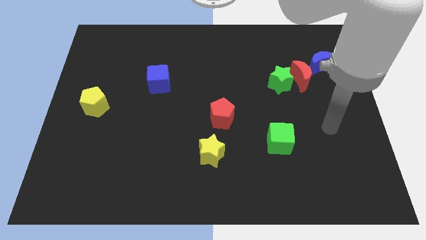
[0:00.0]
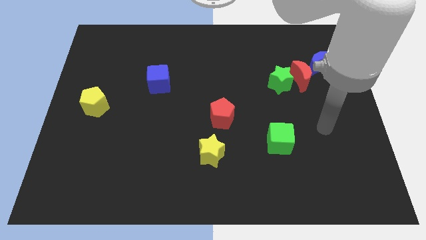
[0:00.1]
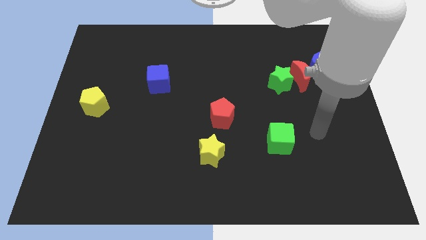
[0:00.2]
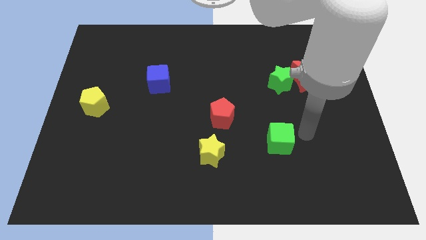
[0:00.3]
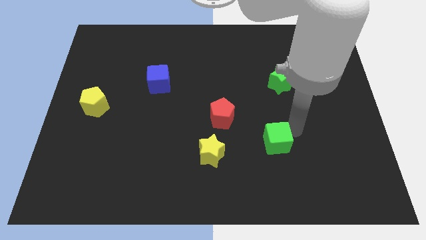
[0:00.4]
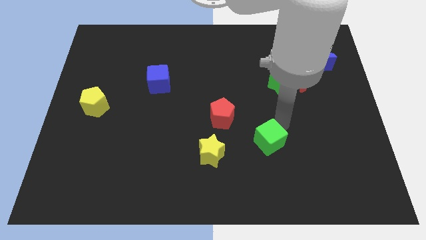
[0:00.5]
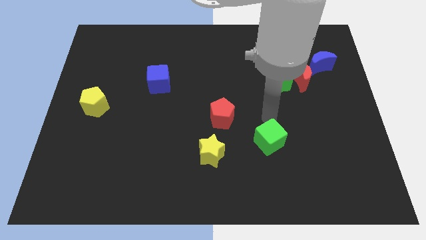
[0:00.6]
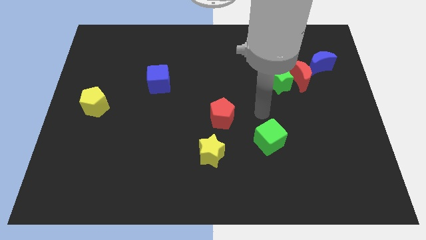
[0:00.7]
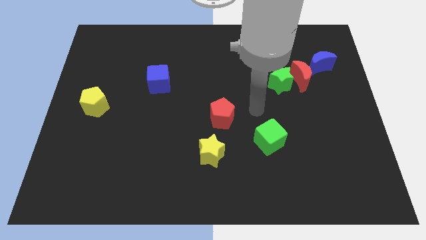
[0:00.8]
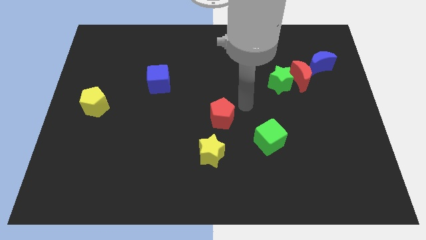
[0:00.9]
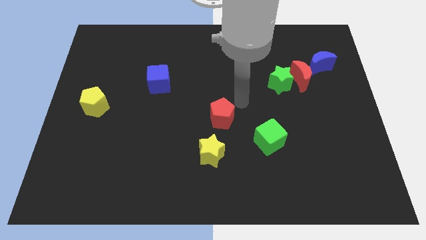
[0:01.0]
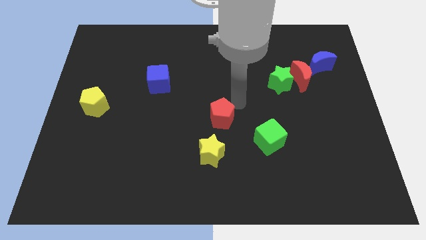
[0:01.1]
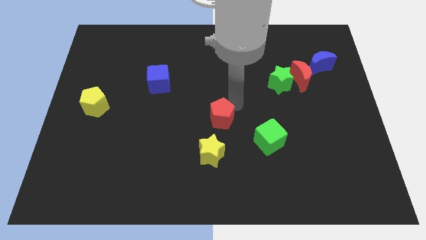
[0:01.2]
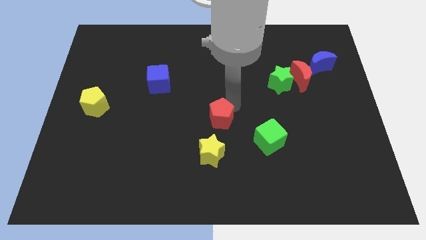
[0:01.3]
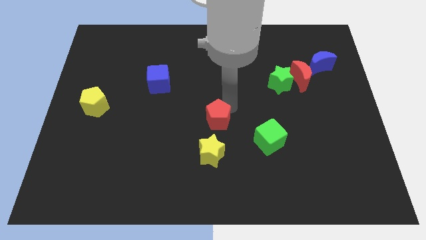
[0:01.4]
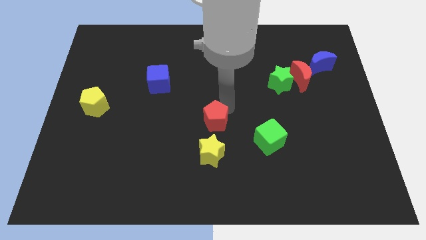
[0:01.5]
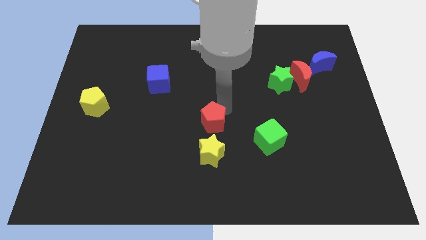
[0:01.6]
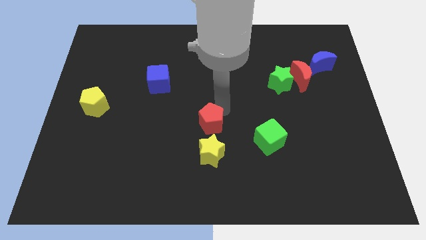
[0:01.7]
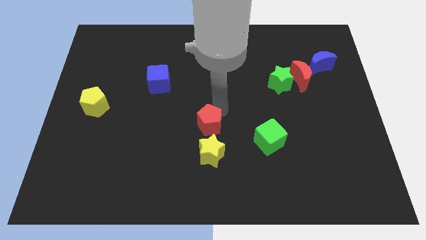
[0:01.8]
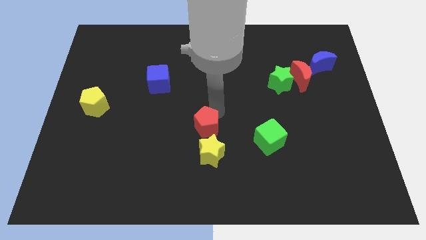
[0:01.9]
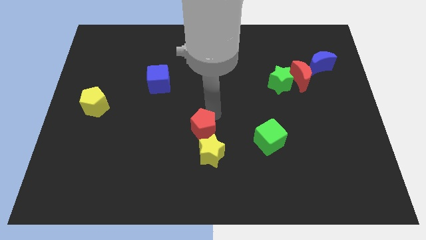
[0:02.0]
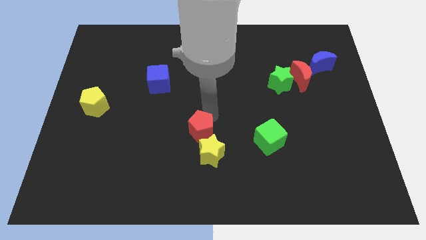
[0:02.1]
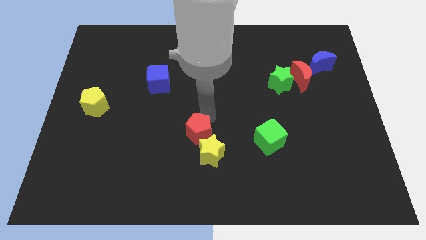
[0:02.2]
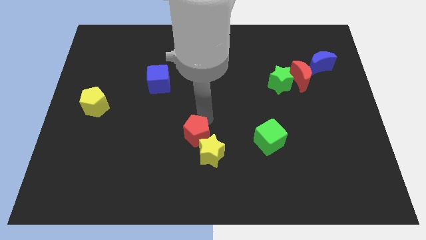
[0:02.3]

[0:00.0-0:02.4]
slightly slide the red pentagon down and to the left diagonally

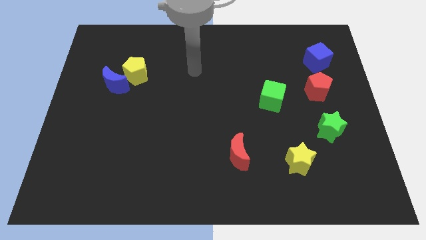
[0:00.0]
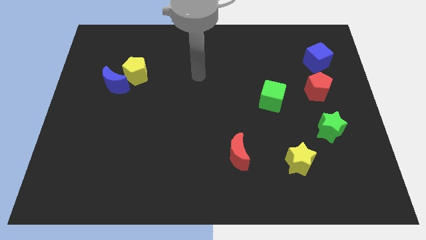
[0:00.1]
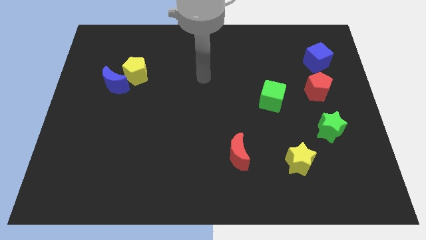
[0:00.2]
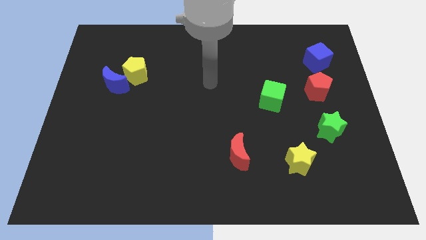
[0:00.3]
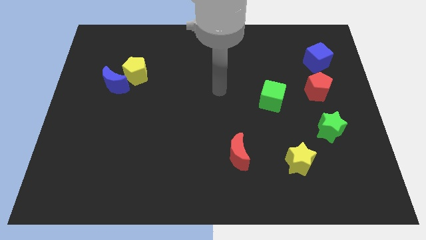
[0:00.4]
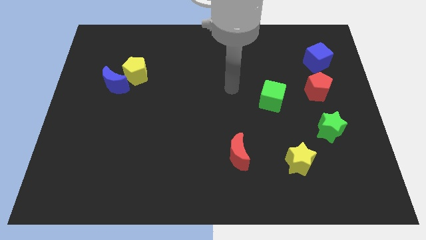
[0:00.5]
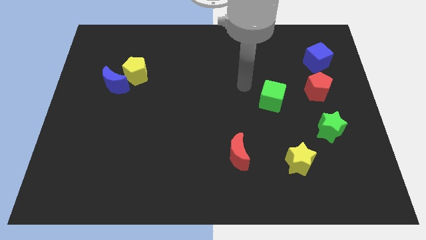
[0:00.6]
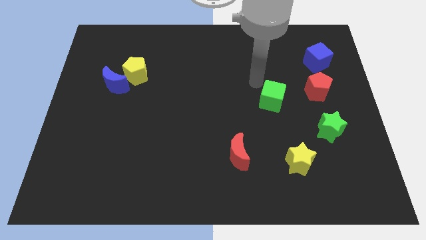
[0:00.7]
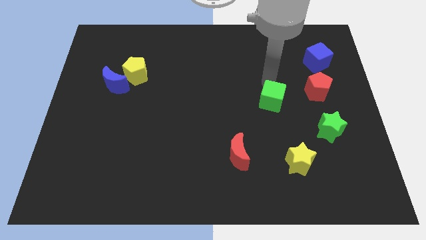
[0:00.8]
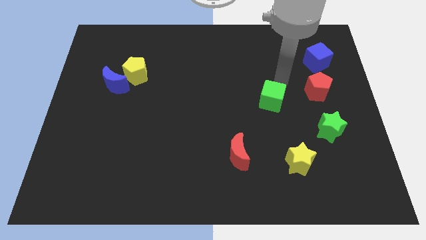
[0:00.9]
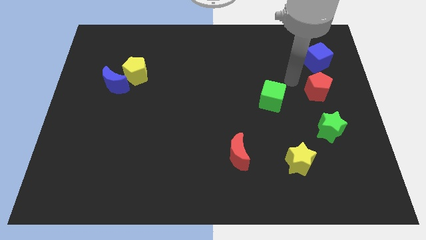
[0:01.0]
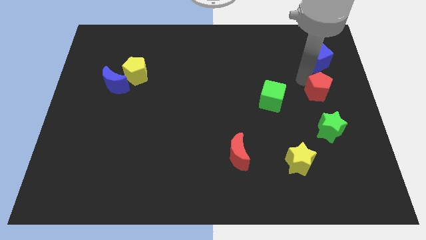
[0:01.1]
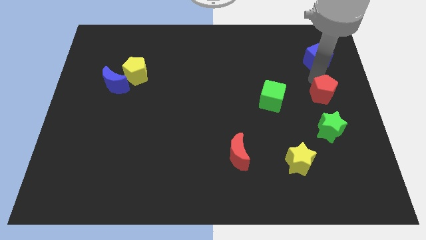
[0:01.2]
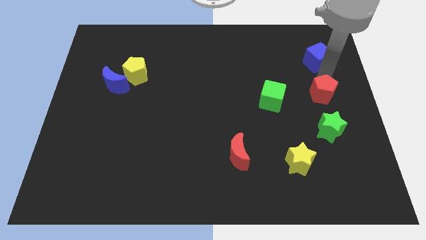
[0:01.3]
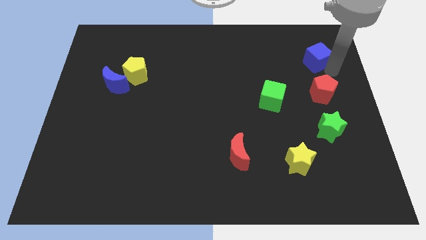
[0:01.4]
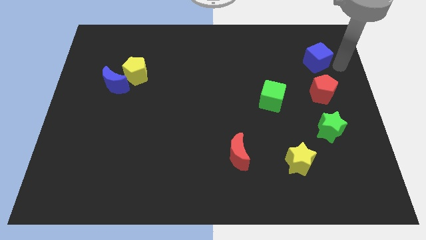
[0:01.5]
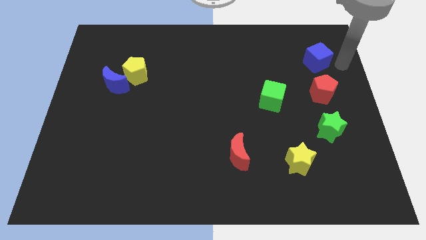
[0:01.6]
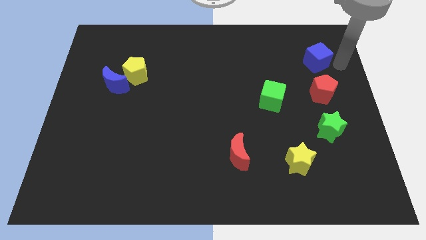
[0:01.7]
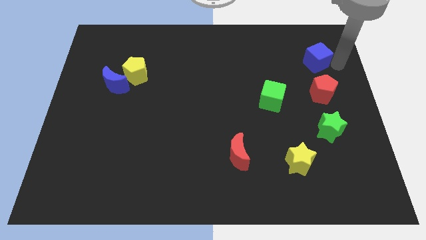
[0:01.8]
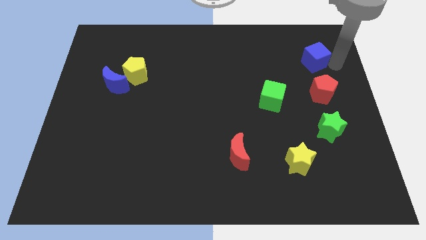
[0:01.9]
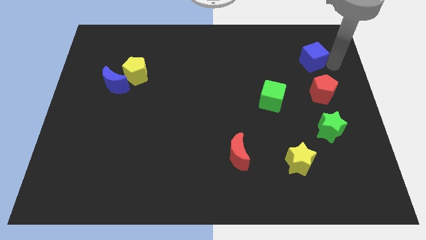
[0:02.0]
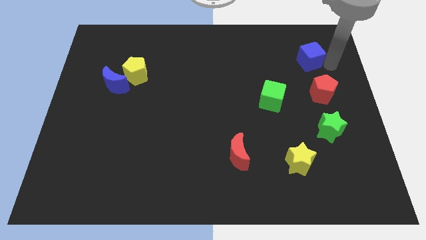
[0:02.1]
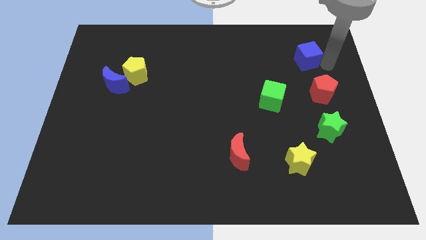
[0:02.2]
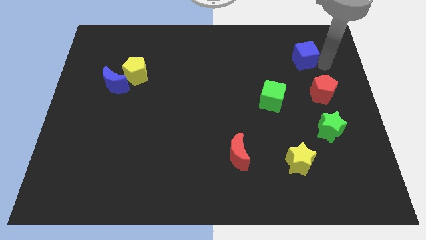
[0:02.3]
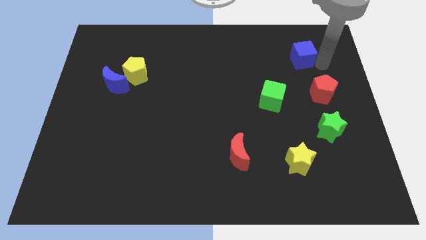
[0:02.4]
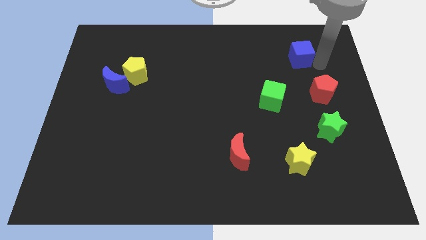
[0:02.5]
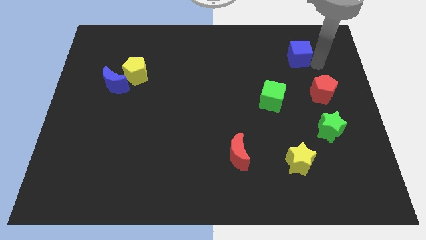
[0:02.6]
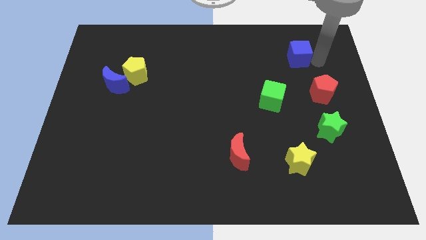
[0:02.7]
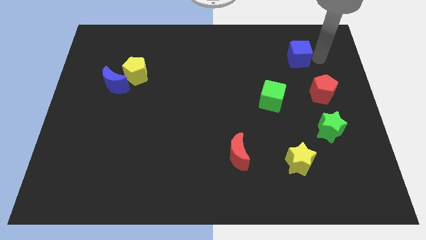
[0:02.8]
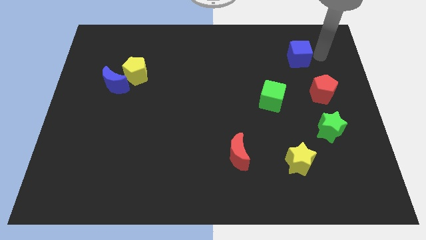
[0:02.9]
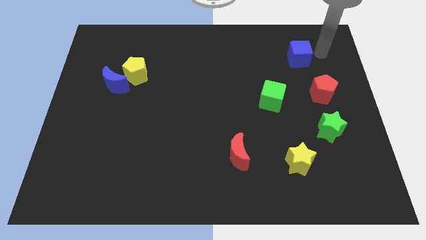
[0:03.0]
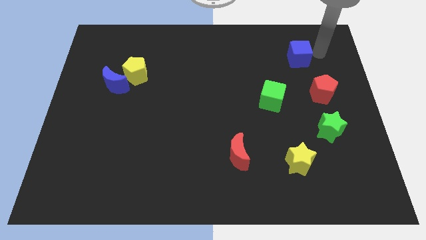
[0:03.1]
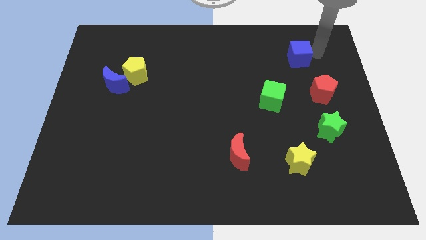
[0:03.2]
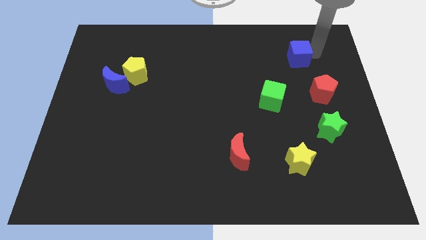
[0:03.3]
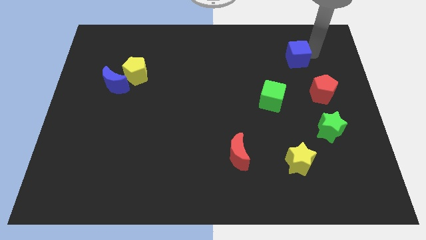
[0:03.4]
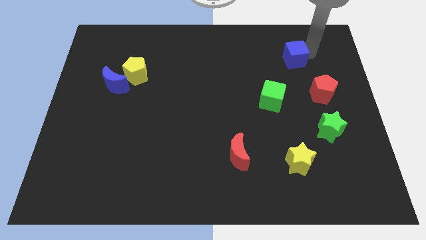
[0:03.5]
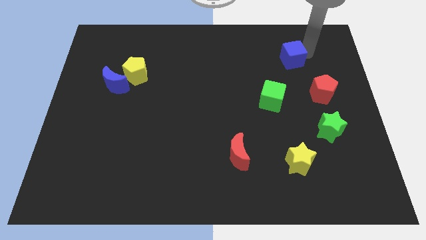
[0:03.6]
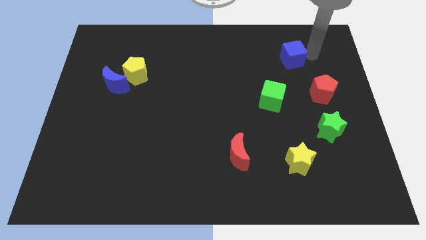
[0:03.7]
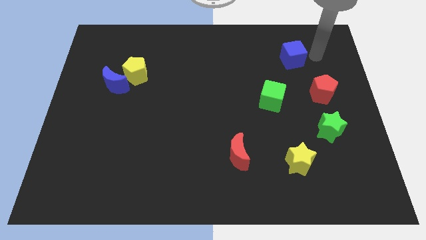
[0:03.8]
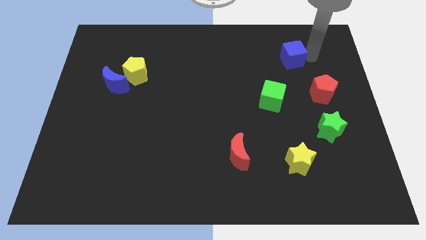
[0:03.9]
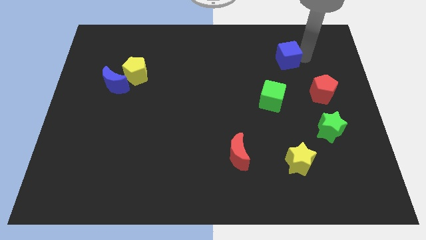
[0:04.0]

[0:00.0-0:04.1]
slide the blue cube left a little bit

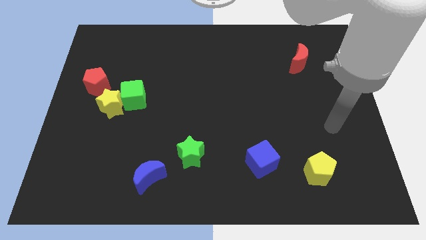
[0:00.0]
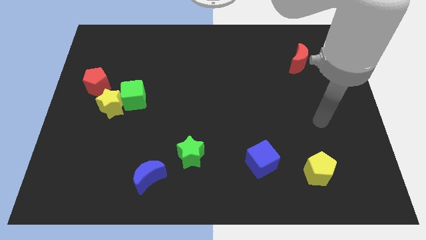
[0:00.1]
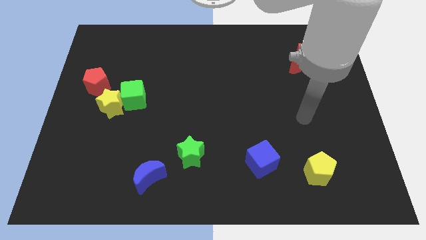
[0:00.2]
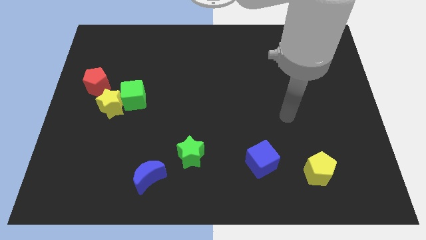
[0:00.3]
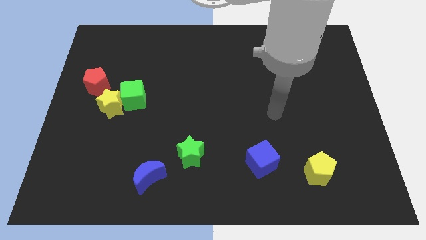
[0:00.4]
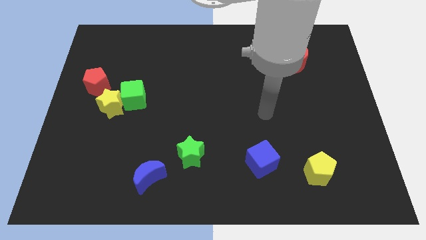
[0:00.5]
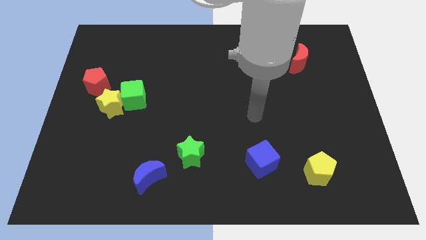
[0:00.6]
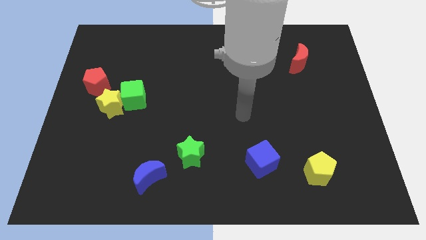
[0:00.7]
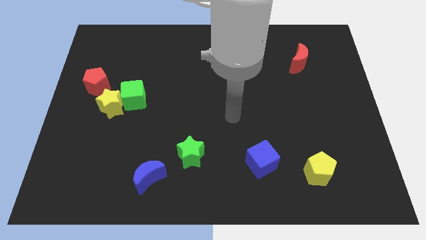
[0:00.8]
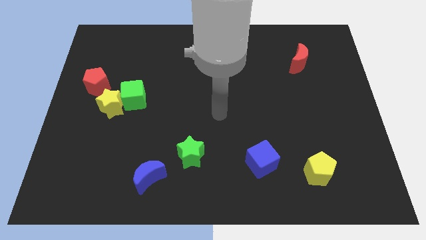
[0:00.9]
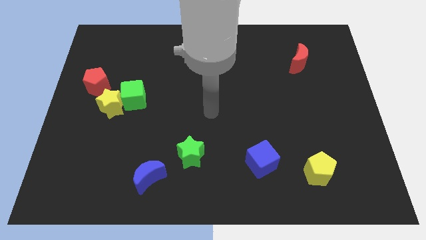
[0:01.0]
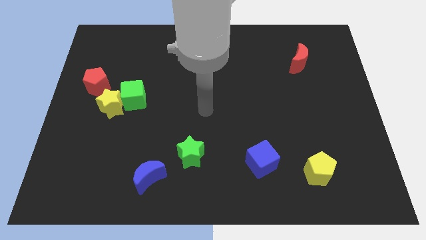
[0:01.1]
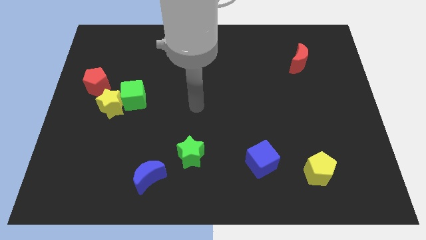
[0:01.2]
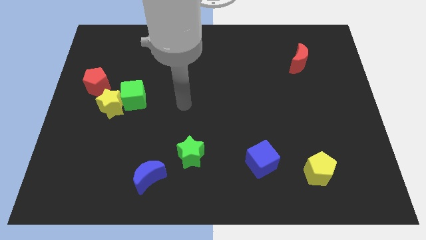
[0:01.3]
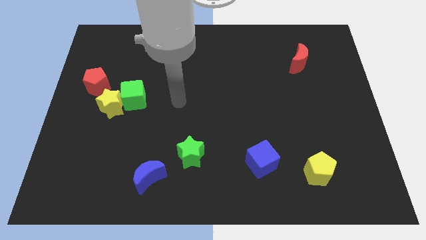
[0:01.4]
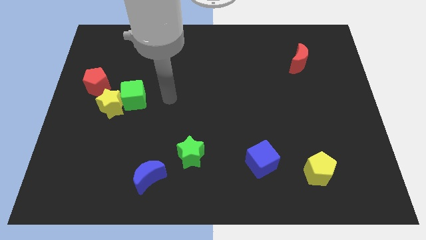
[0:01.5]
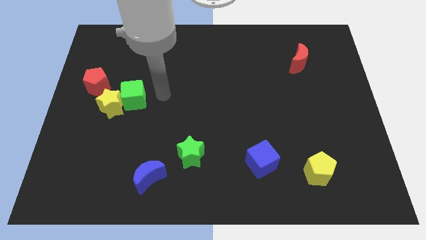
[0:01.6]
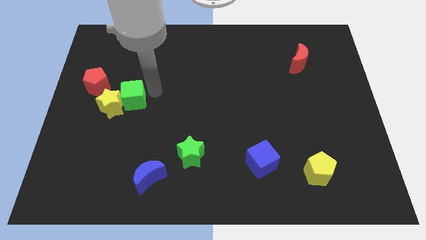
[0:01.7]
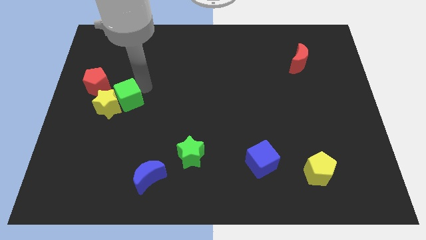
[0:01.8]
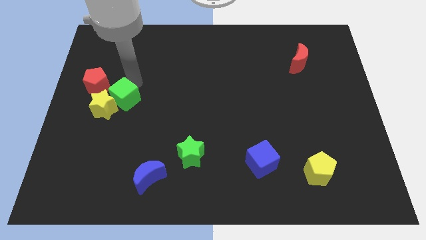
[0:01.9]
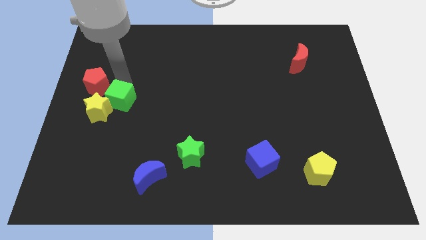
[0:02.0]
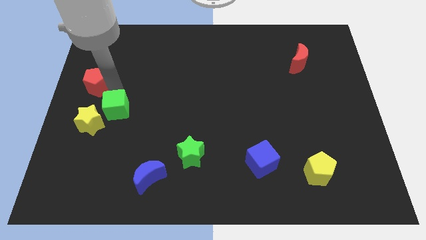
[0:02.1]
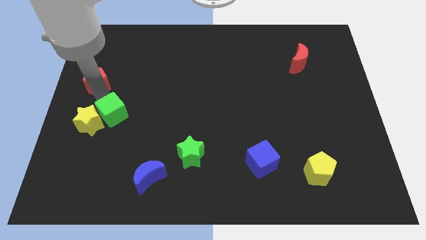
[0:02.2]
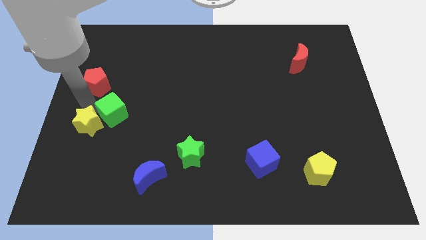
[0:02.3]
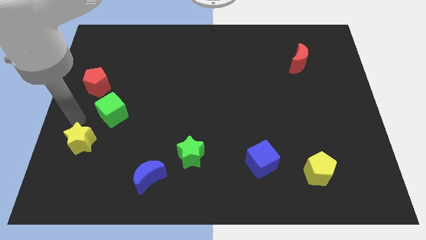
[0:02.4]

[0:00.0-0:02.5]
slightly push the yellow star down
